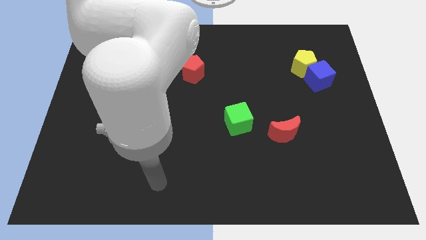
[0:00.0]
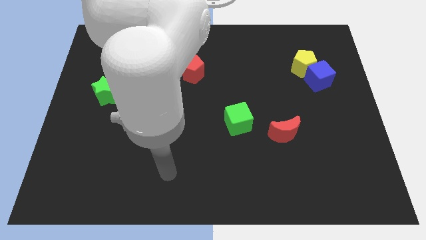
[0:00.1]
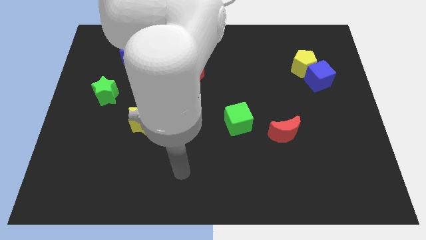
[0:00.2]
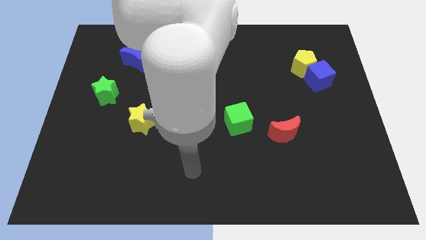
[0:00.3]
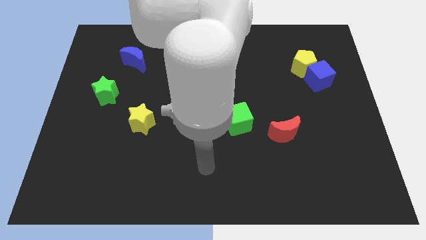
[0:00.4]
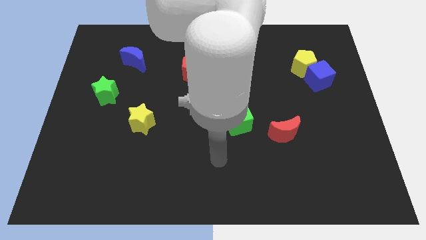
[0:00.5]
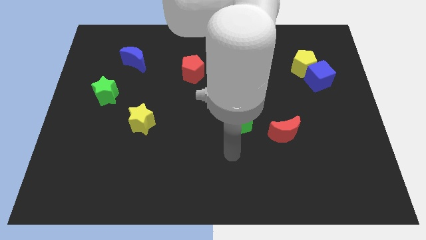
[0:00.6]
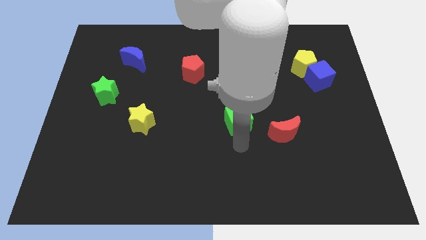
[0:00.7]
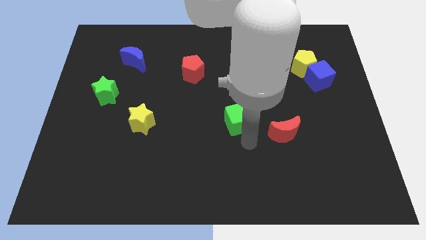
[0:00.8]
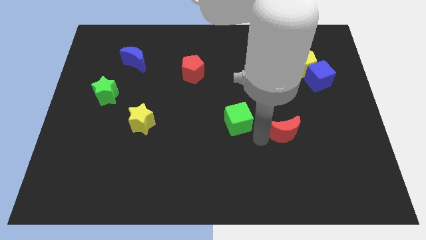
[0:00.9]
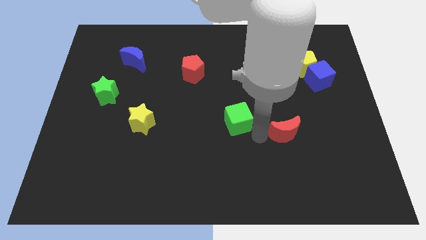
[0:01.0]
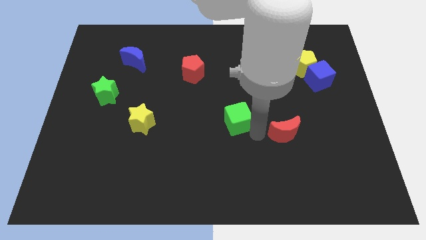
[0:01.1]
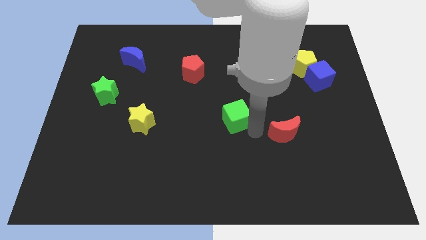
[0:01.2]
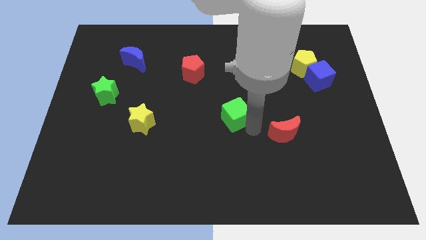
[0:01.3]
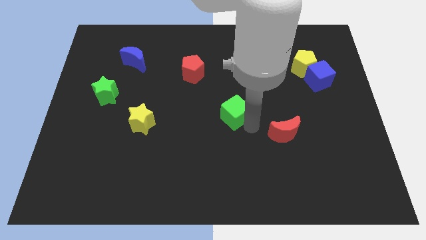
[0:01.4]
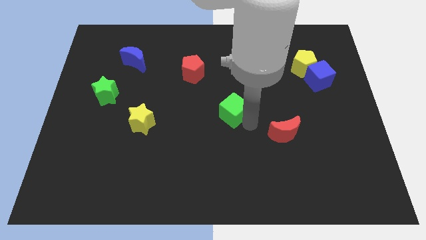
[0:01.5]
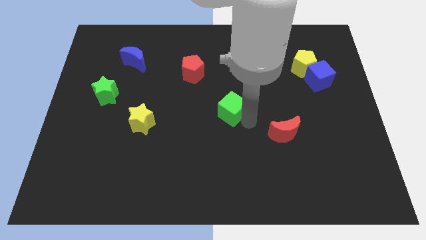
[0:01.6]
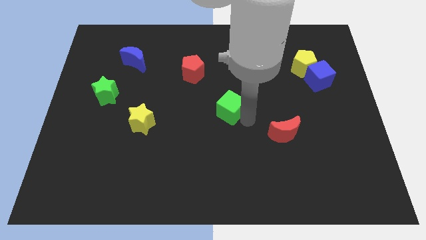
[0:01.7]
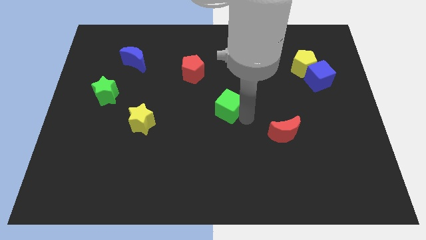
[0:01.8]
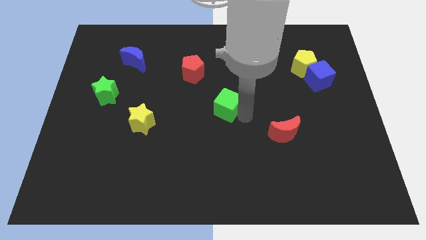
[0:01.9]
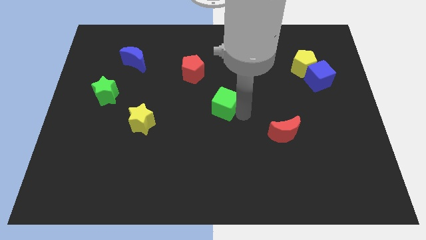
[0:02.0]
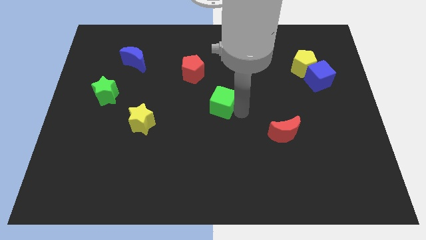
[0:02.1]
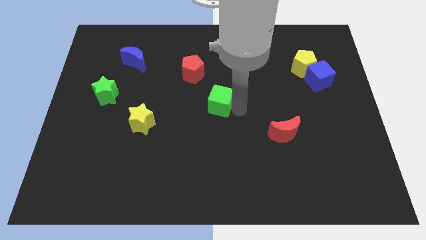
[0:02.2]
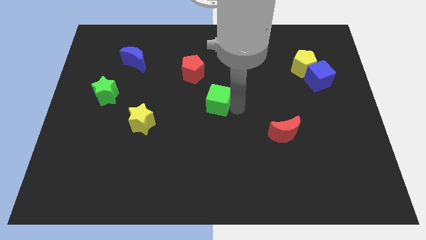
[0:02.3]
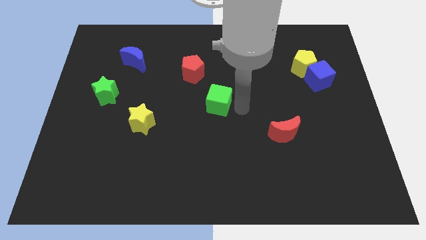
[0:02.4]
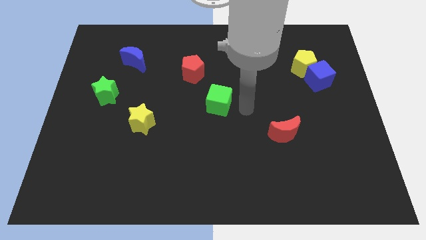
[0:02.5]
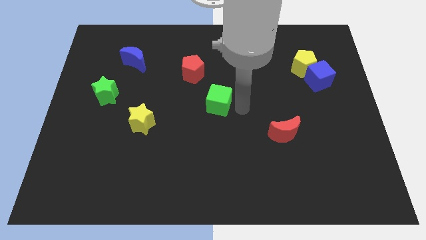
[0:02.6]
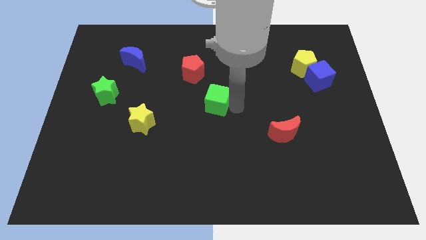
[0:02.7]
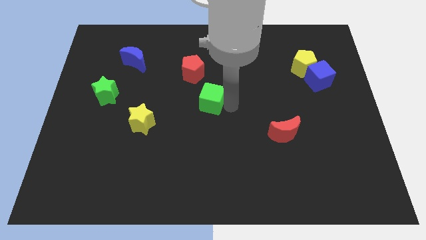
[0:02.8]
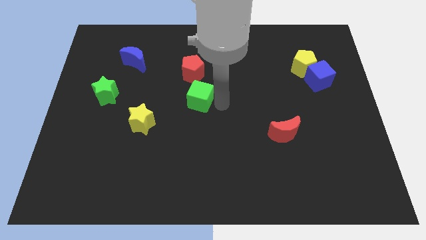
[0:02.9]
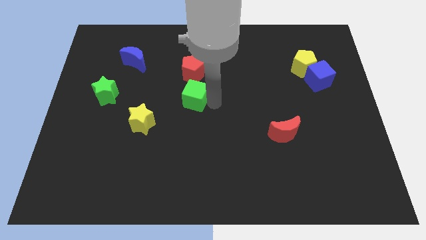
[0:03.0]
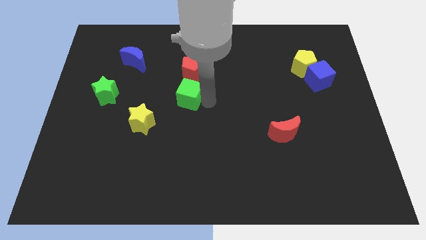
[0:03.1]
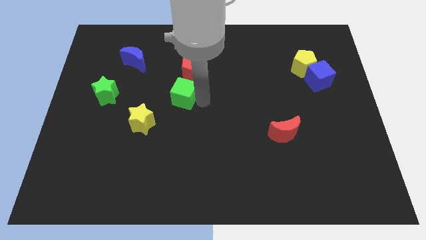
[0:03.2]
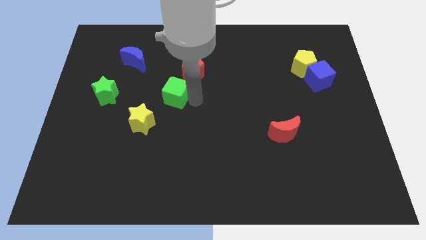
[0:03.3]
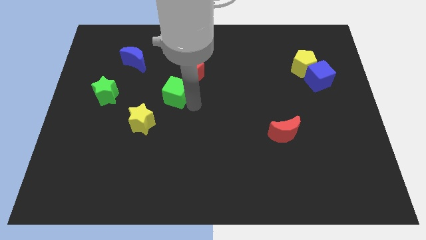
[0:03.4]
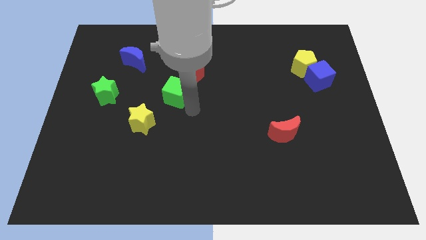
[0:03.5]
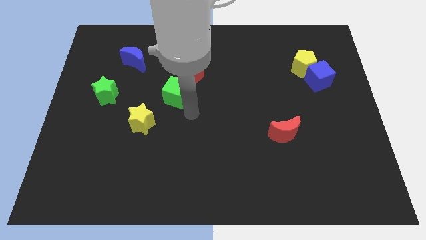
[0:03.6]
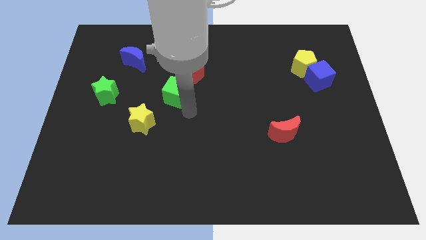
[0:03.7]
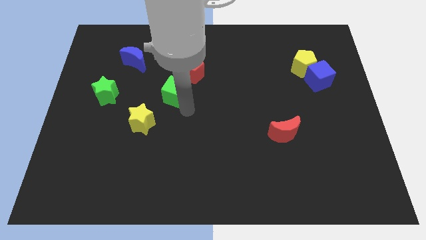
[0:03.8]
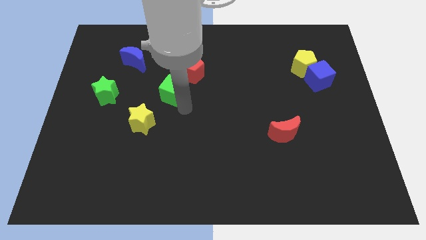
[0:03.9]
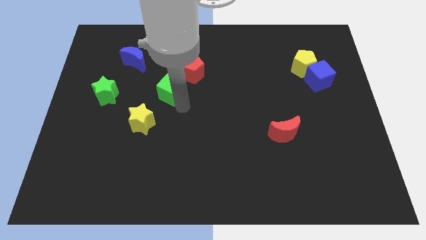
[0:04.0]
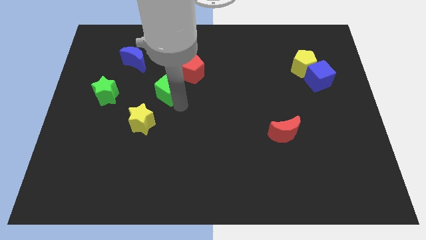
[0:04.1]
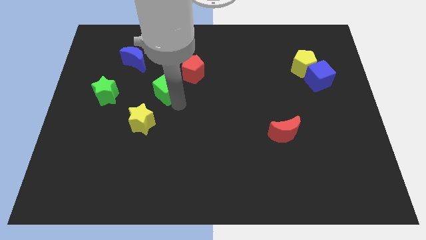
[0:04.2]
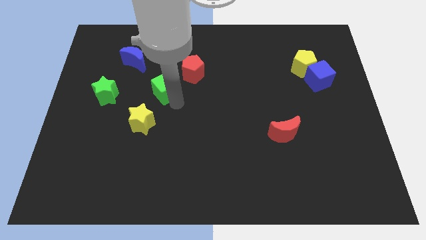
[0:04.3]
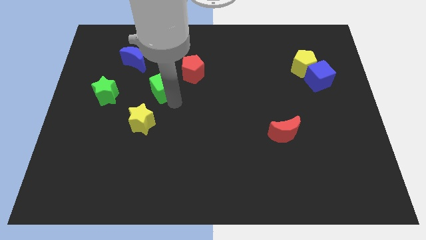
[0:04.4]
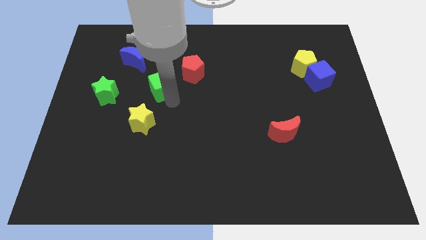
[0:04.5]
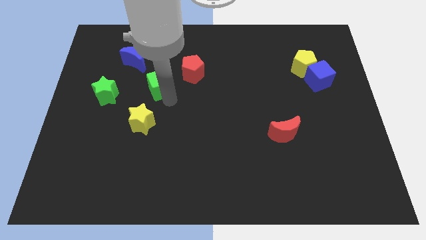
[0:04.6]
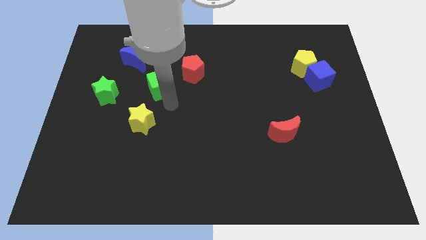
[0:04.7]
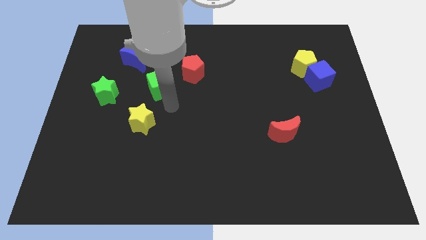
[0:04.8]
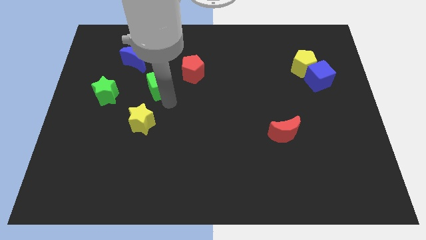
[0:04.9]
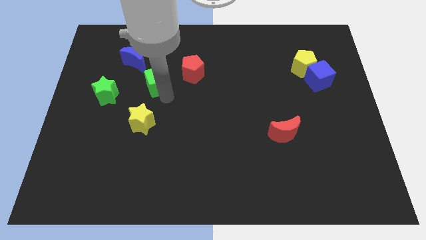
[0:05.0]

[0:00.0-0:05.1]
put the green cube to the left side of the red pentagon
